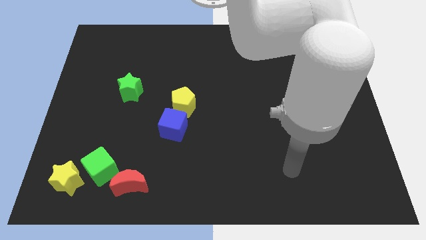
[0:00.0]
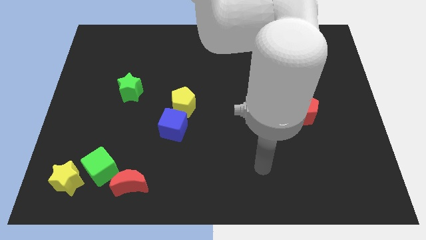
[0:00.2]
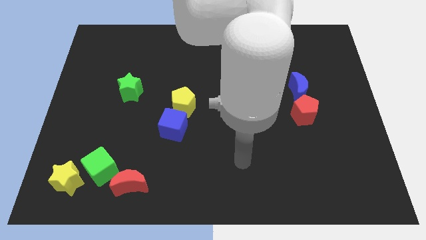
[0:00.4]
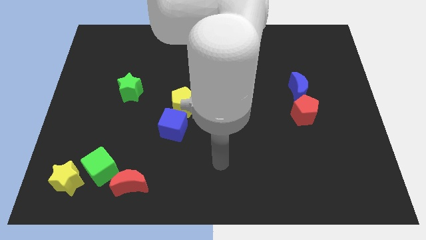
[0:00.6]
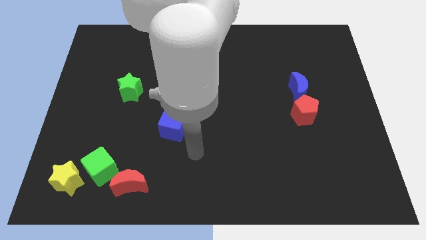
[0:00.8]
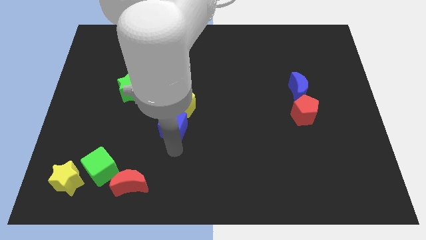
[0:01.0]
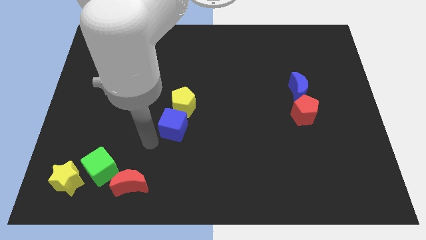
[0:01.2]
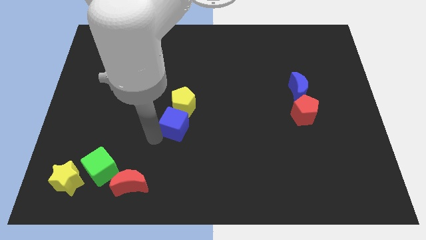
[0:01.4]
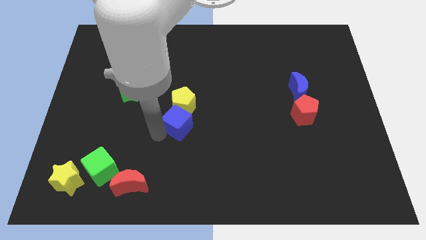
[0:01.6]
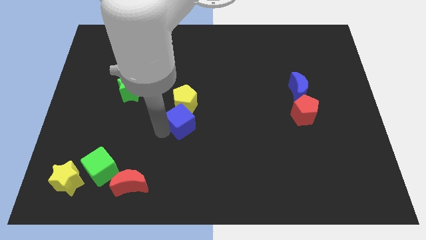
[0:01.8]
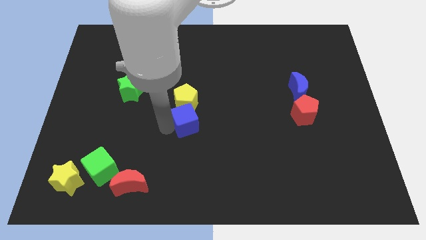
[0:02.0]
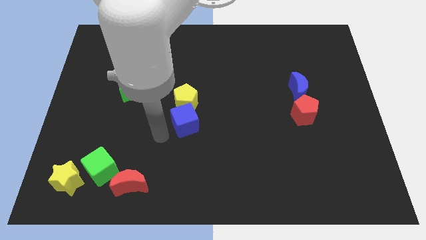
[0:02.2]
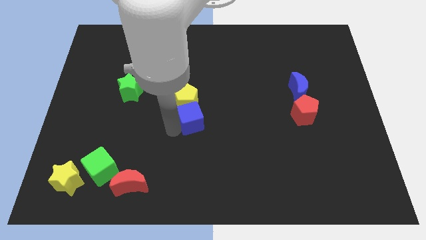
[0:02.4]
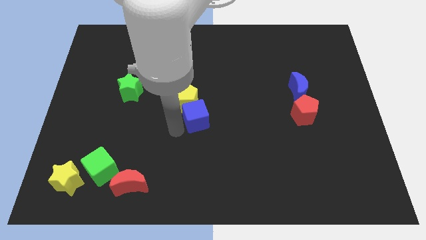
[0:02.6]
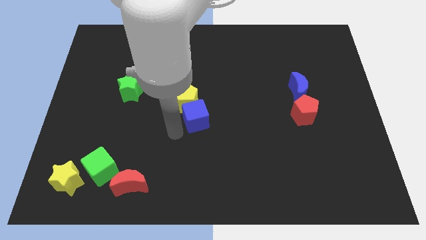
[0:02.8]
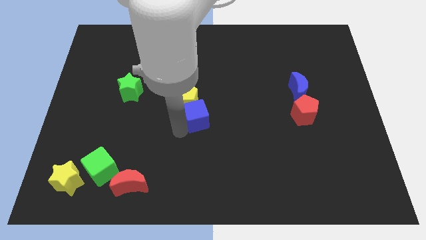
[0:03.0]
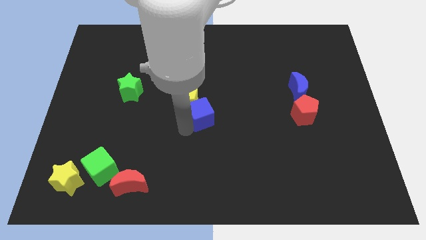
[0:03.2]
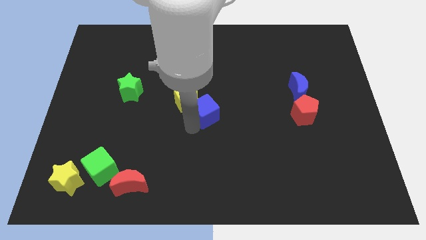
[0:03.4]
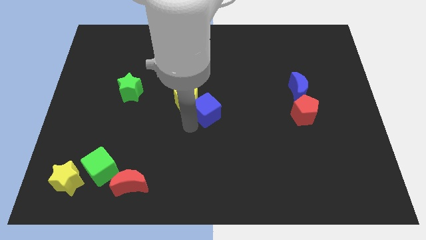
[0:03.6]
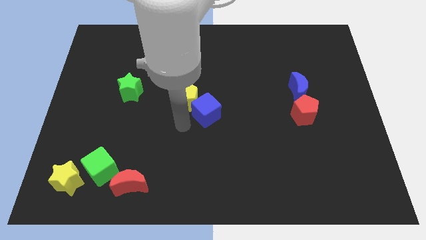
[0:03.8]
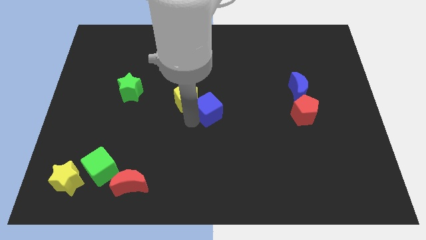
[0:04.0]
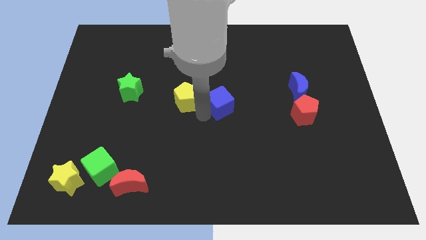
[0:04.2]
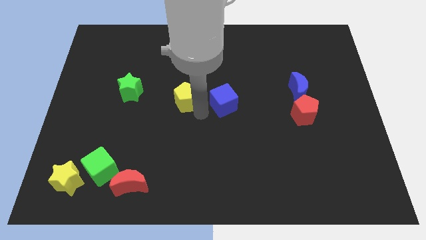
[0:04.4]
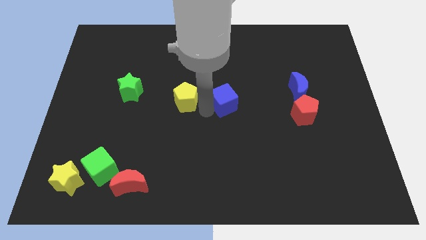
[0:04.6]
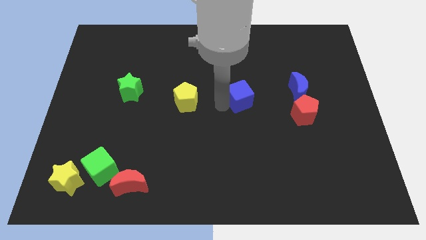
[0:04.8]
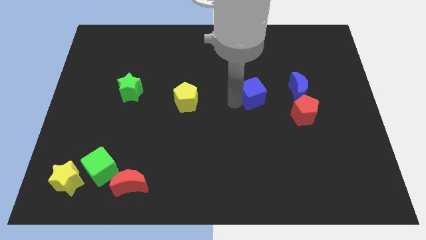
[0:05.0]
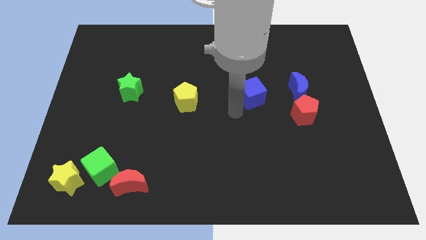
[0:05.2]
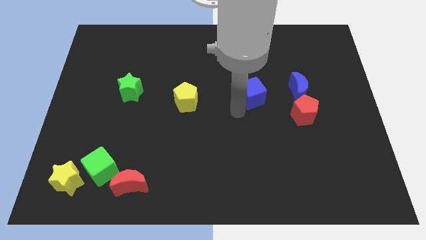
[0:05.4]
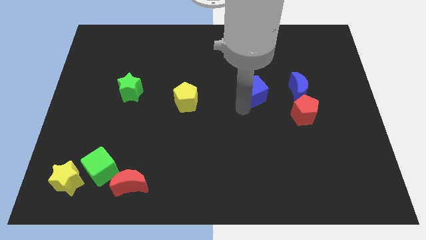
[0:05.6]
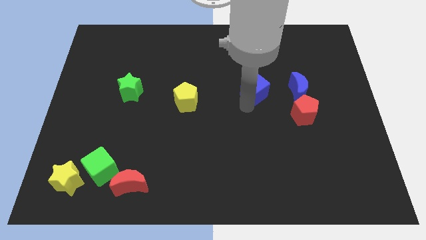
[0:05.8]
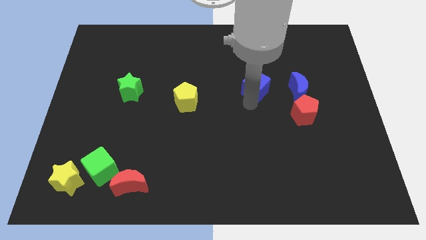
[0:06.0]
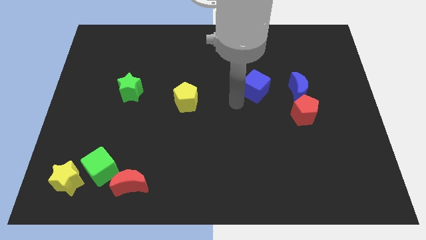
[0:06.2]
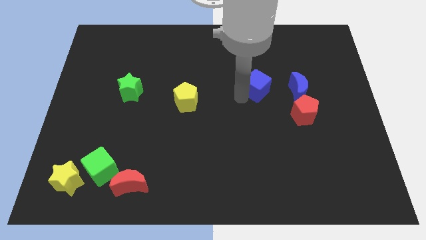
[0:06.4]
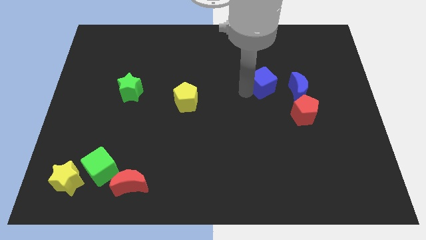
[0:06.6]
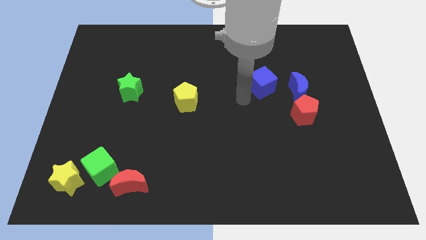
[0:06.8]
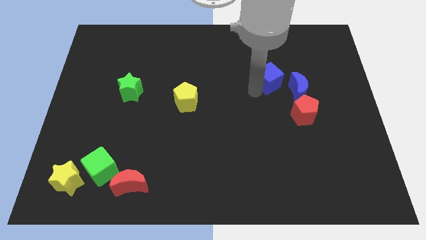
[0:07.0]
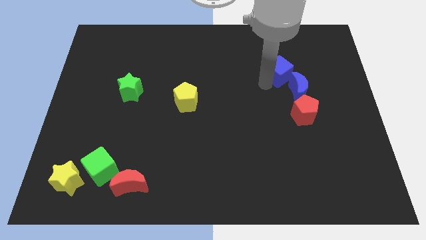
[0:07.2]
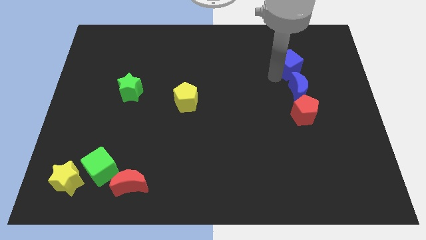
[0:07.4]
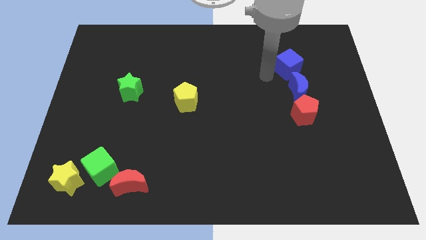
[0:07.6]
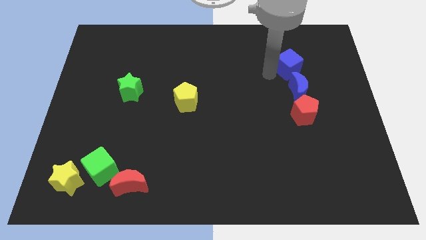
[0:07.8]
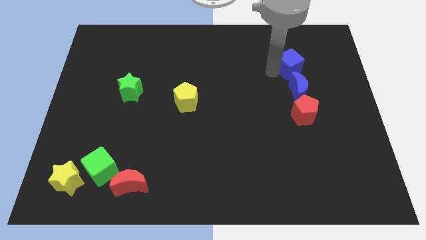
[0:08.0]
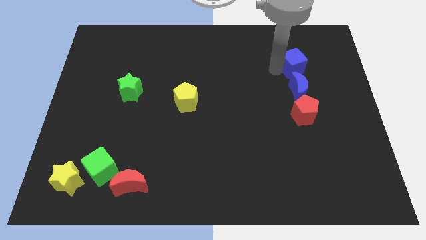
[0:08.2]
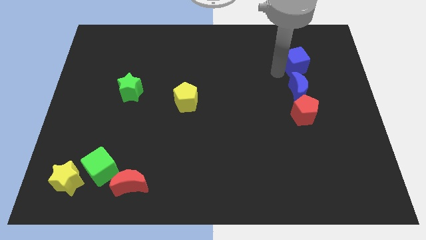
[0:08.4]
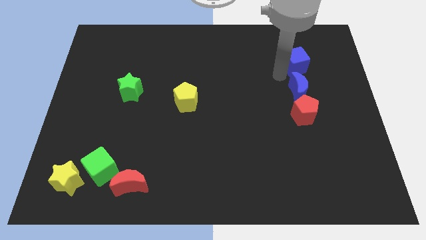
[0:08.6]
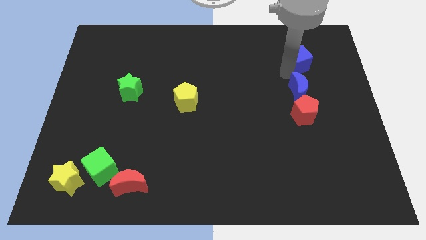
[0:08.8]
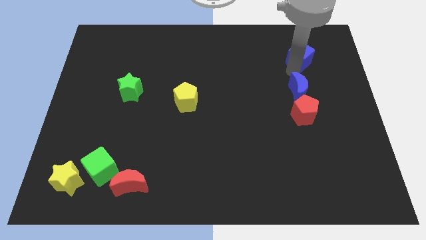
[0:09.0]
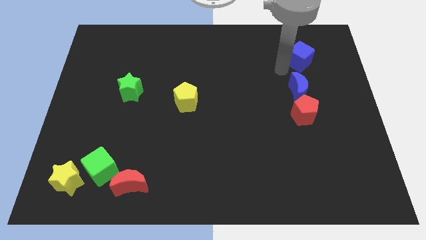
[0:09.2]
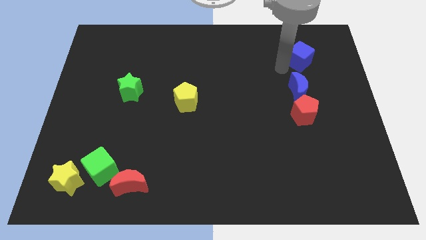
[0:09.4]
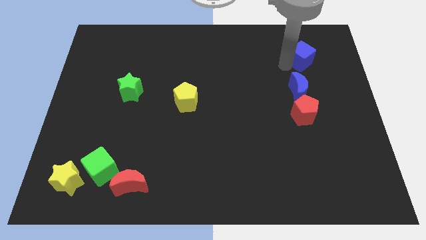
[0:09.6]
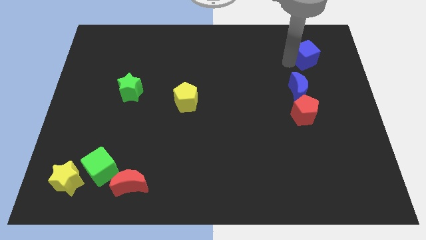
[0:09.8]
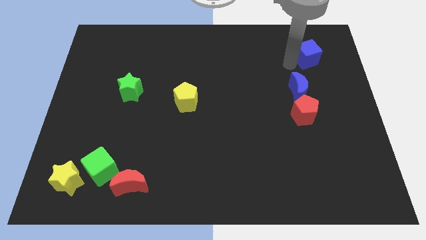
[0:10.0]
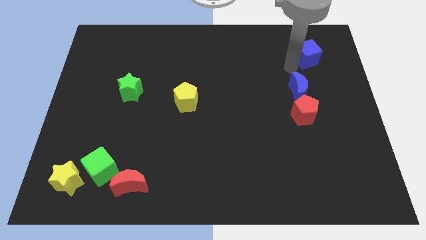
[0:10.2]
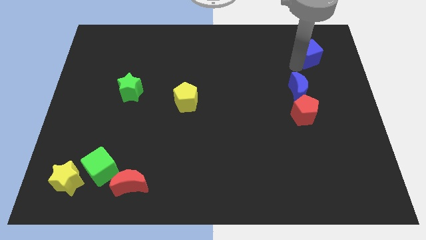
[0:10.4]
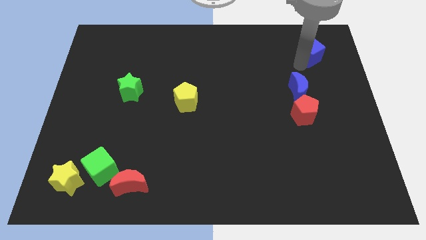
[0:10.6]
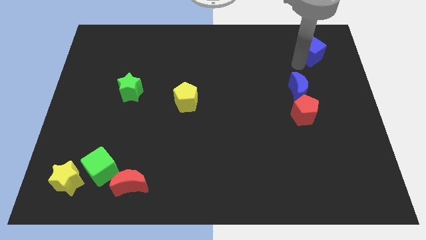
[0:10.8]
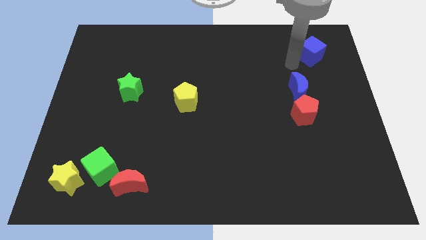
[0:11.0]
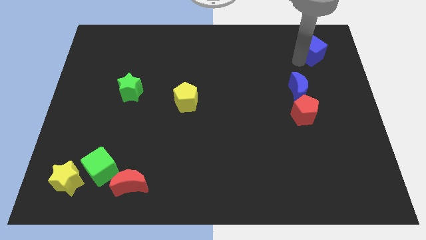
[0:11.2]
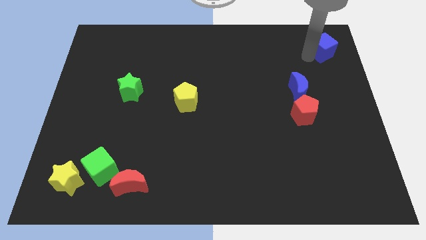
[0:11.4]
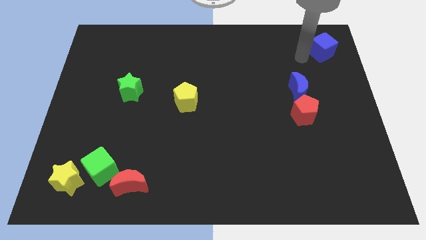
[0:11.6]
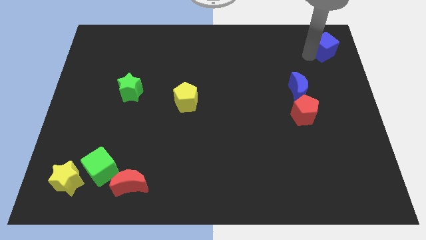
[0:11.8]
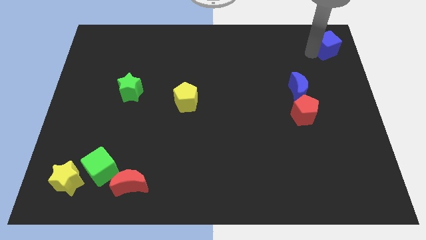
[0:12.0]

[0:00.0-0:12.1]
move the blue cube to the top right
